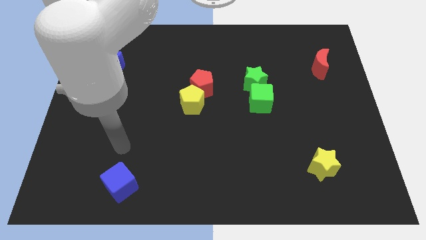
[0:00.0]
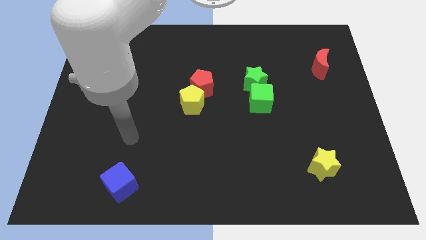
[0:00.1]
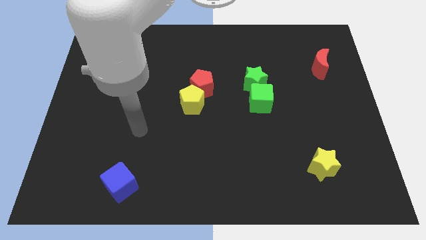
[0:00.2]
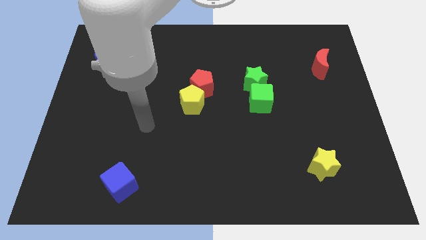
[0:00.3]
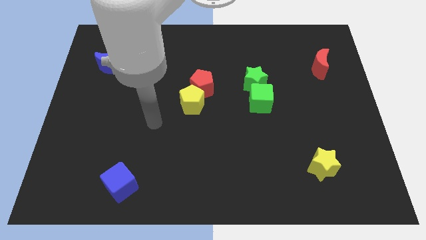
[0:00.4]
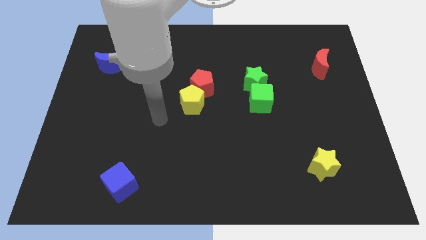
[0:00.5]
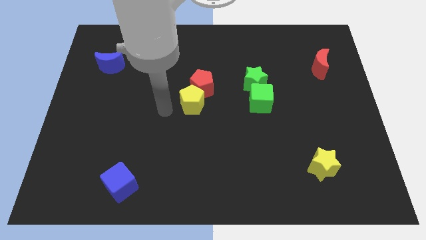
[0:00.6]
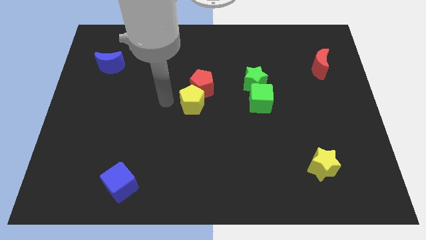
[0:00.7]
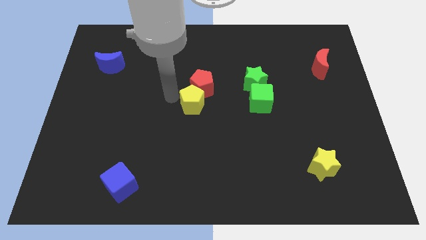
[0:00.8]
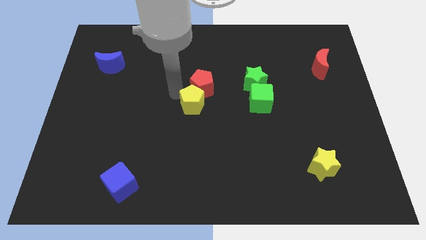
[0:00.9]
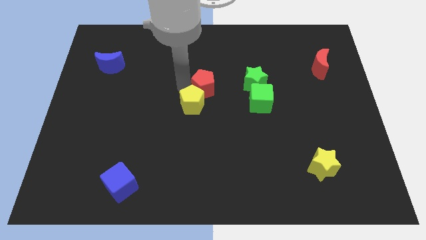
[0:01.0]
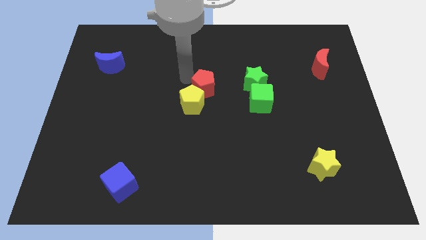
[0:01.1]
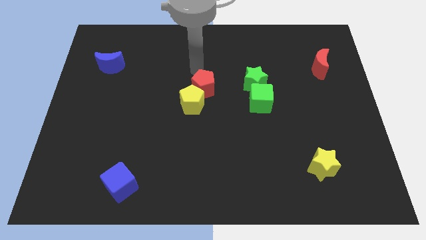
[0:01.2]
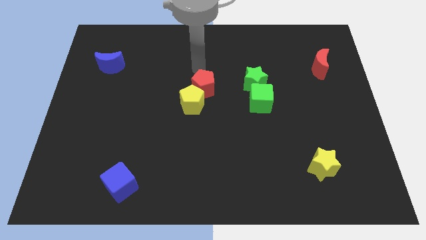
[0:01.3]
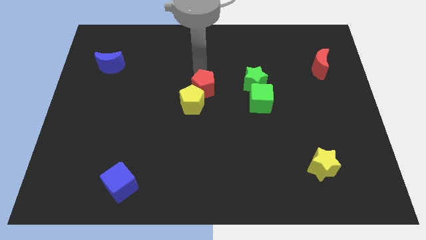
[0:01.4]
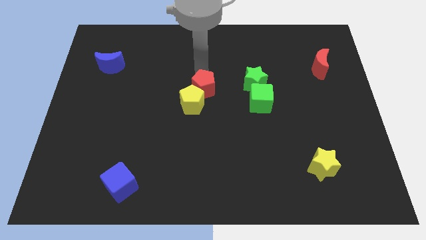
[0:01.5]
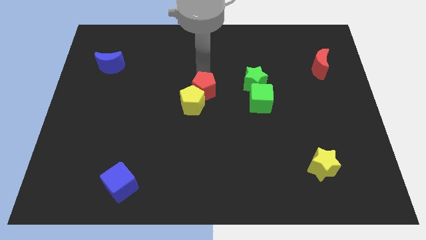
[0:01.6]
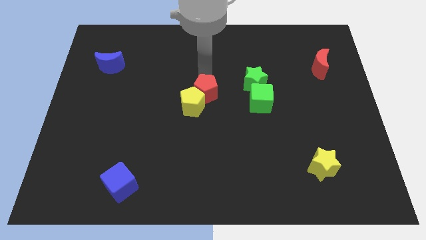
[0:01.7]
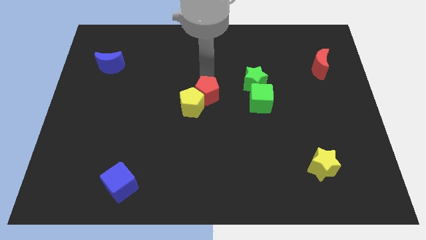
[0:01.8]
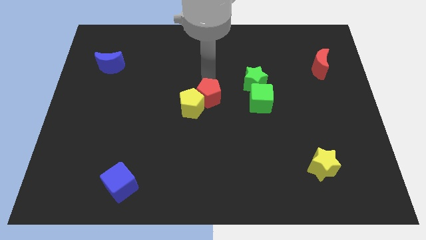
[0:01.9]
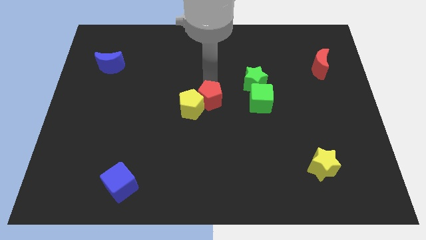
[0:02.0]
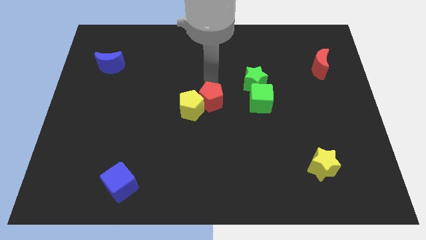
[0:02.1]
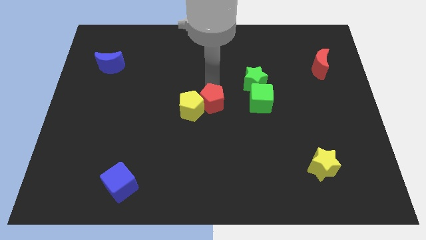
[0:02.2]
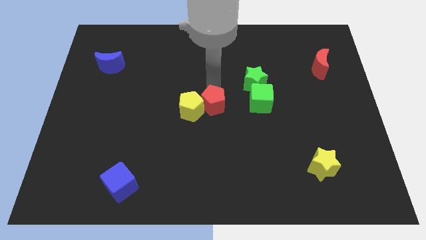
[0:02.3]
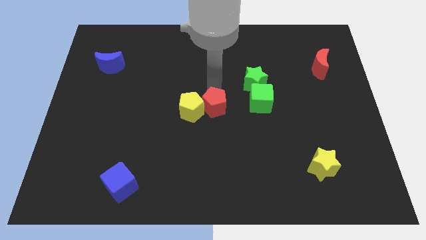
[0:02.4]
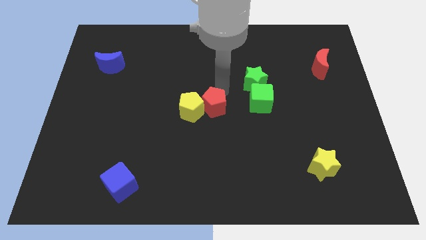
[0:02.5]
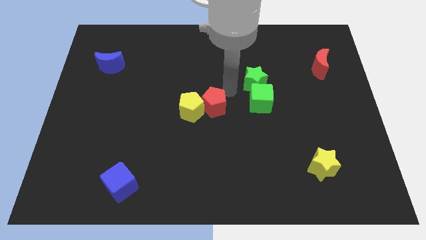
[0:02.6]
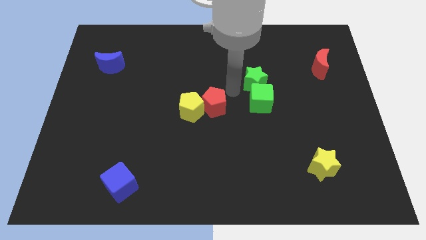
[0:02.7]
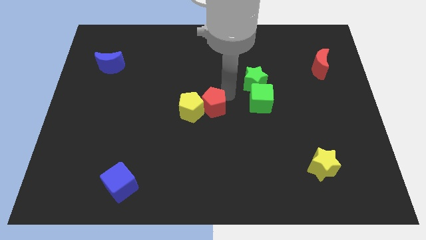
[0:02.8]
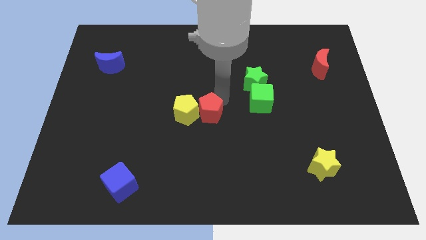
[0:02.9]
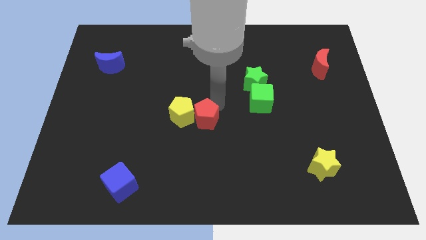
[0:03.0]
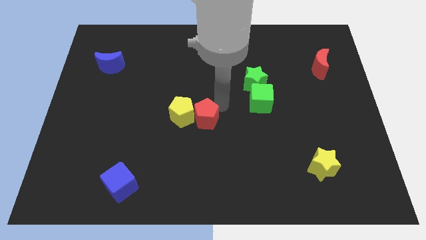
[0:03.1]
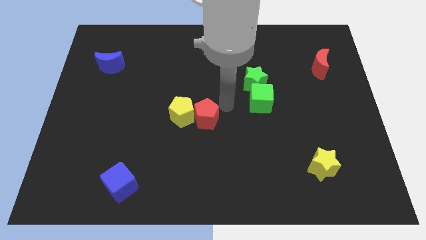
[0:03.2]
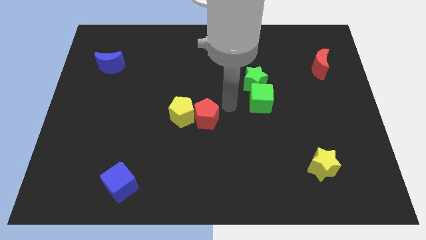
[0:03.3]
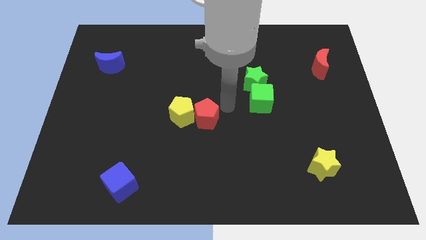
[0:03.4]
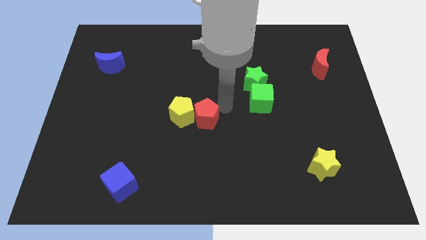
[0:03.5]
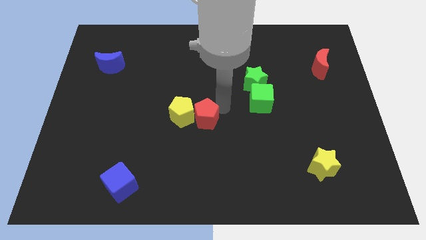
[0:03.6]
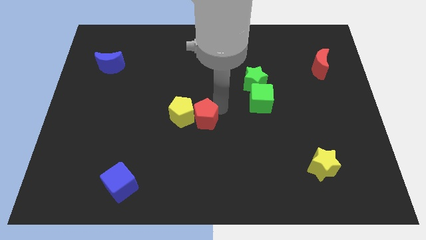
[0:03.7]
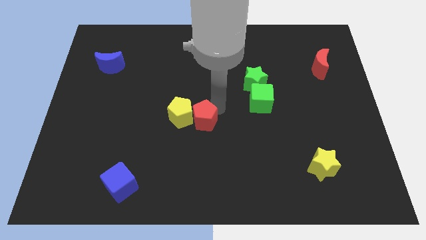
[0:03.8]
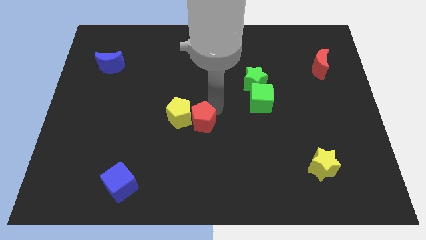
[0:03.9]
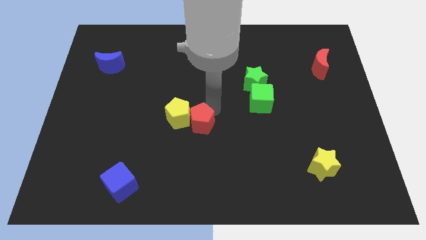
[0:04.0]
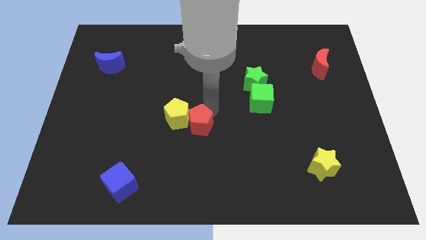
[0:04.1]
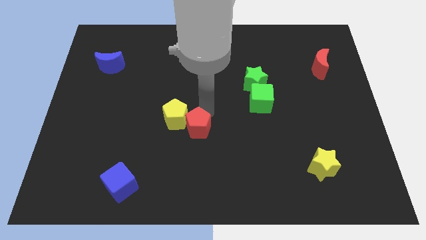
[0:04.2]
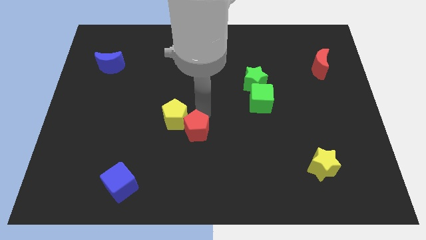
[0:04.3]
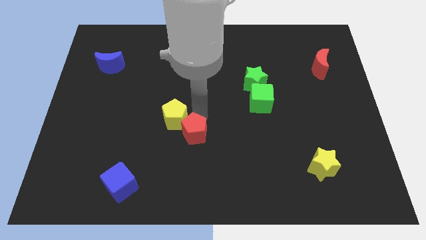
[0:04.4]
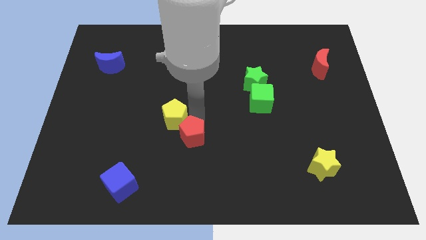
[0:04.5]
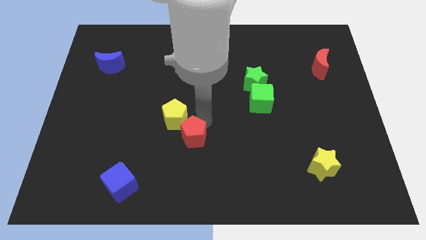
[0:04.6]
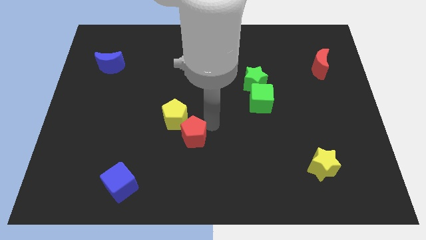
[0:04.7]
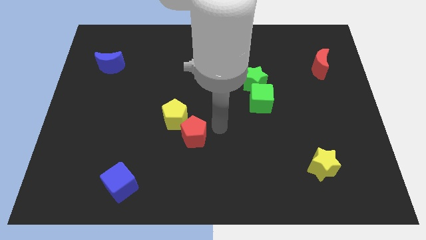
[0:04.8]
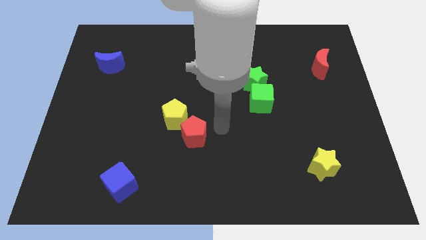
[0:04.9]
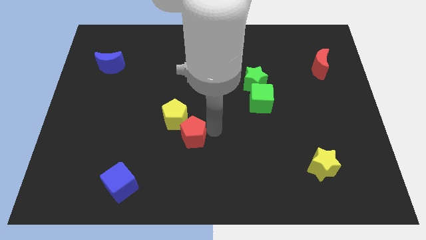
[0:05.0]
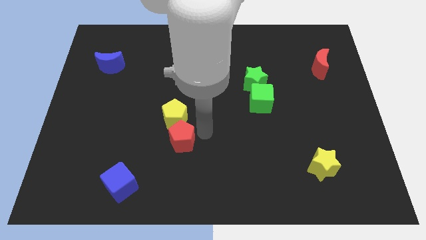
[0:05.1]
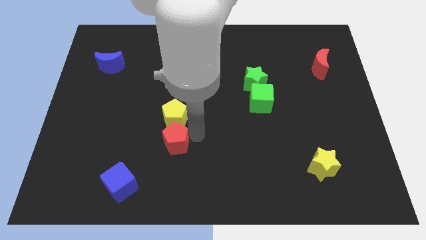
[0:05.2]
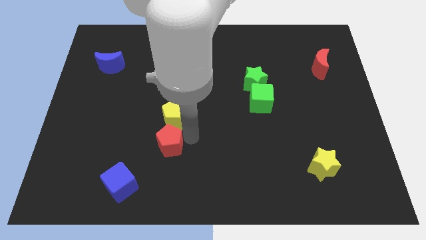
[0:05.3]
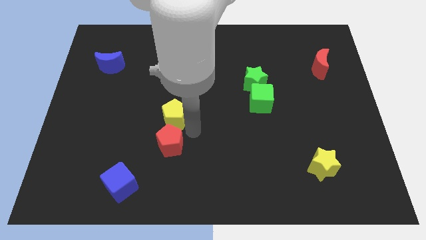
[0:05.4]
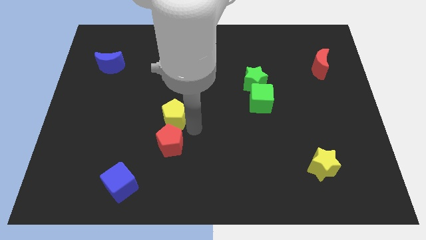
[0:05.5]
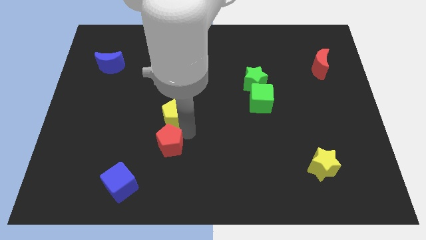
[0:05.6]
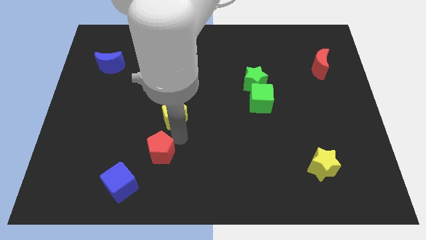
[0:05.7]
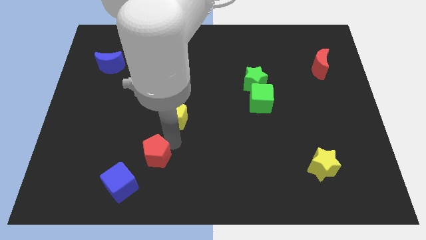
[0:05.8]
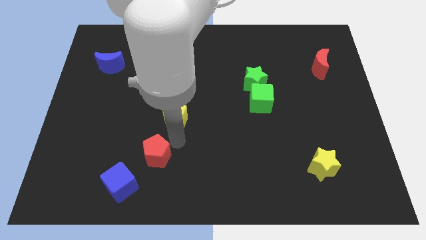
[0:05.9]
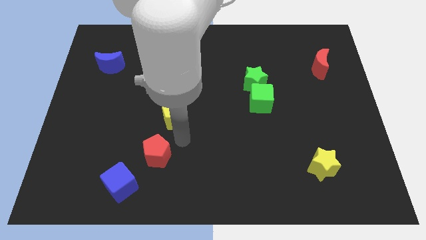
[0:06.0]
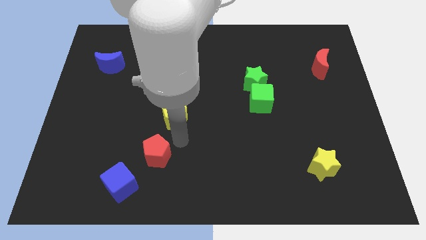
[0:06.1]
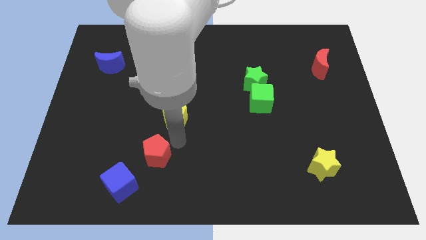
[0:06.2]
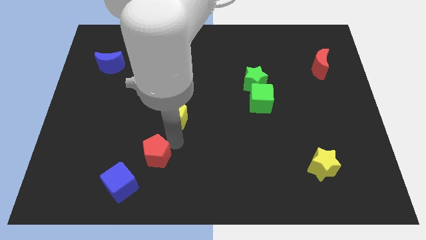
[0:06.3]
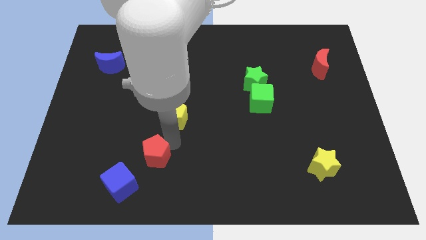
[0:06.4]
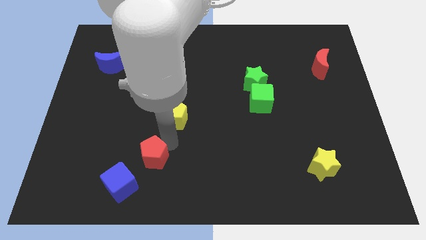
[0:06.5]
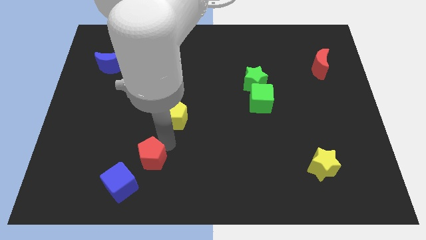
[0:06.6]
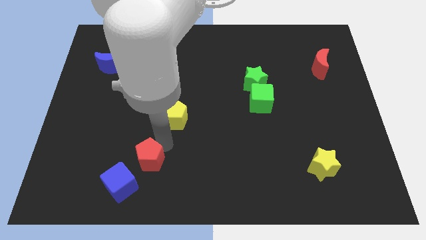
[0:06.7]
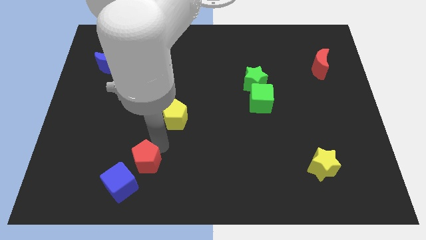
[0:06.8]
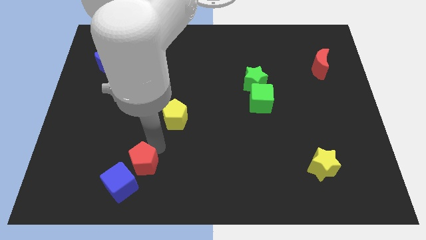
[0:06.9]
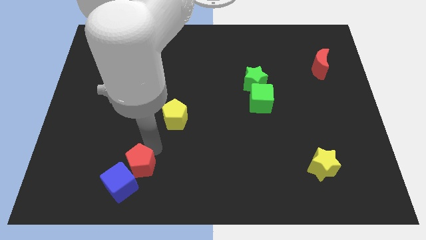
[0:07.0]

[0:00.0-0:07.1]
slide the red pentagon to the blue cube

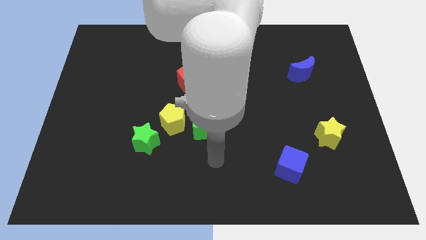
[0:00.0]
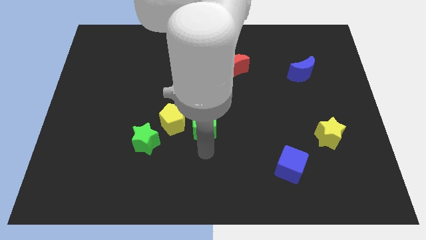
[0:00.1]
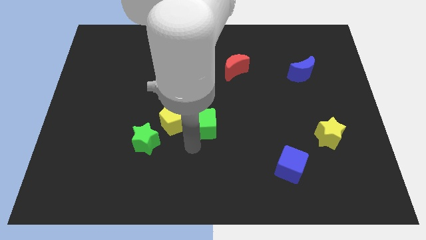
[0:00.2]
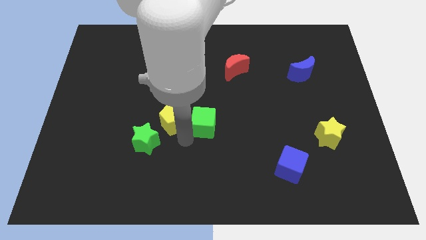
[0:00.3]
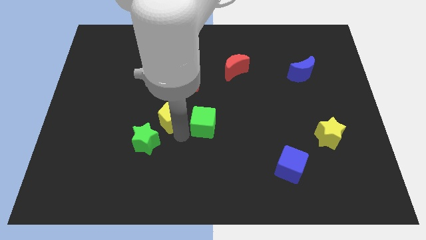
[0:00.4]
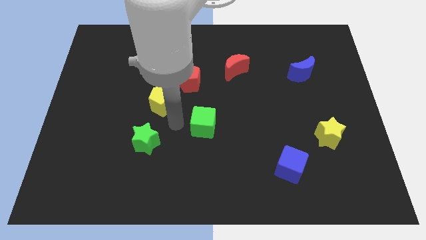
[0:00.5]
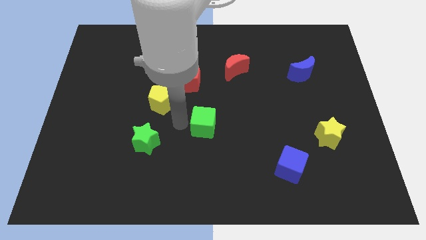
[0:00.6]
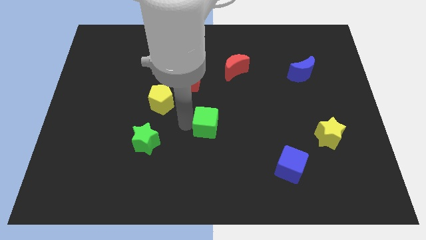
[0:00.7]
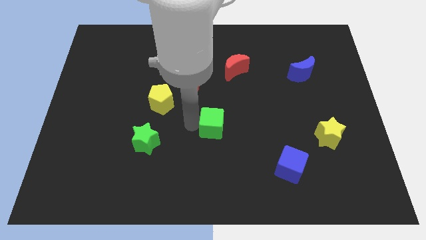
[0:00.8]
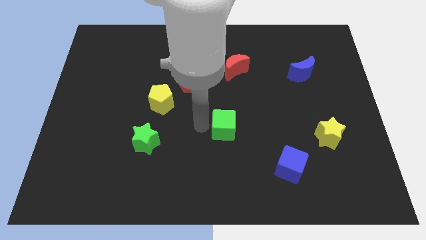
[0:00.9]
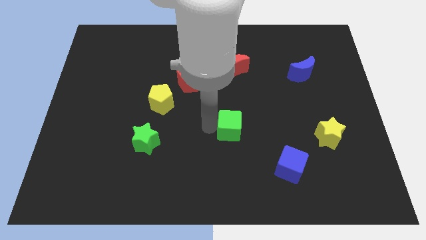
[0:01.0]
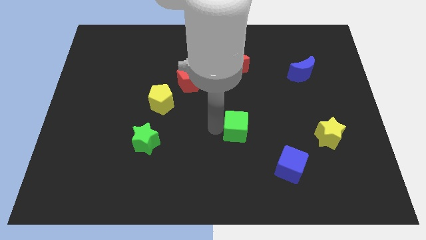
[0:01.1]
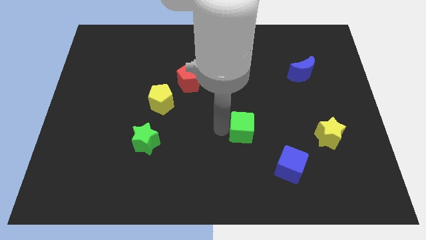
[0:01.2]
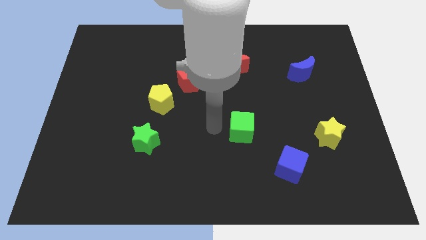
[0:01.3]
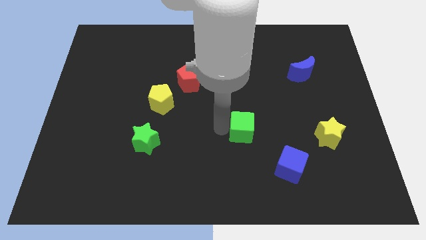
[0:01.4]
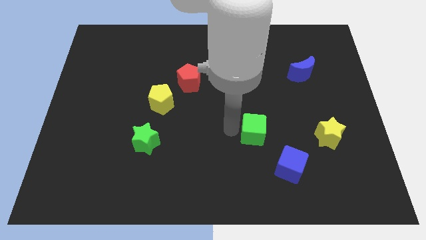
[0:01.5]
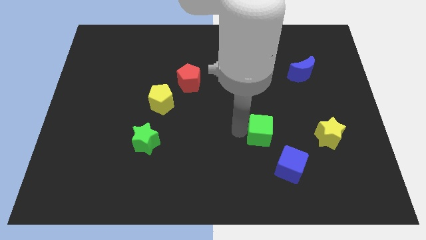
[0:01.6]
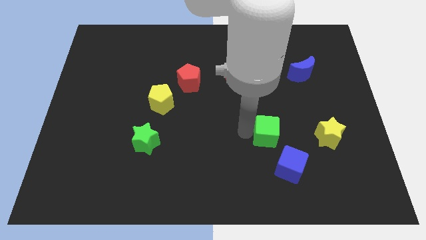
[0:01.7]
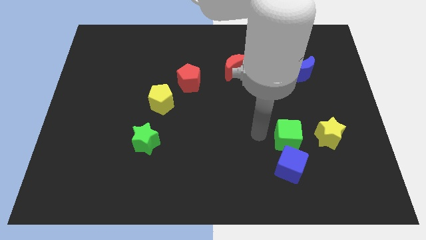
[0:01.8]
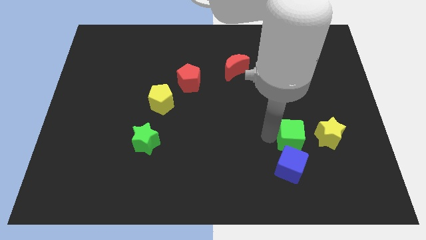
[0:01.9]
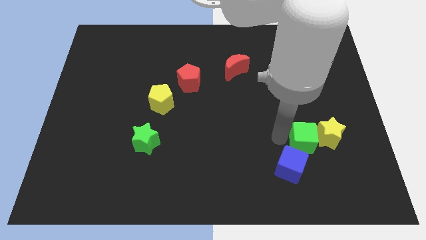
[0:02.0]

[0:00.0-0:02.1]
move the green cube to the yellow star
